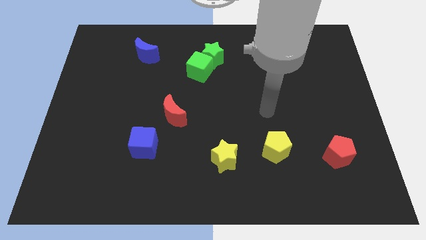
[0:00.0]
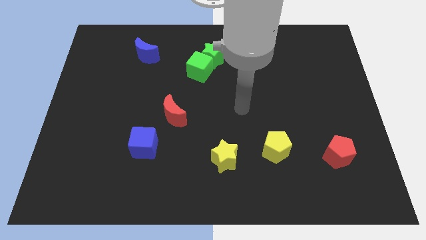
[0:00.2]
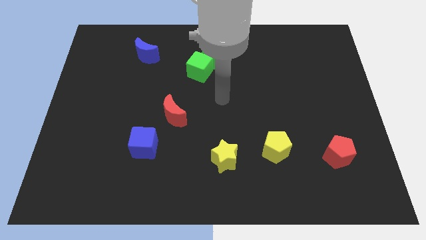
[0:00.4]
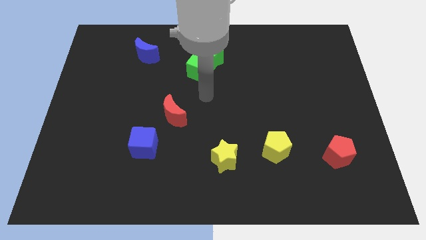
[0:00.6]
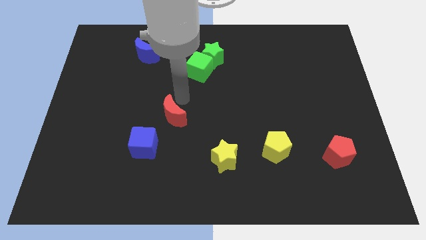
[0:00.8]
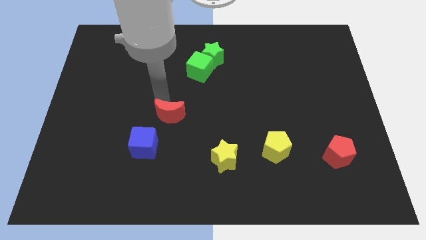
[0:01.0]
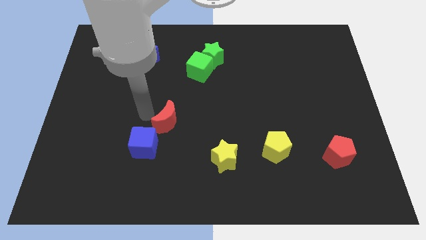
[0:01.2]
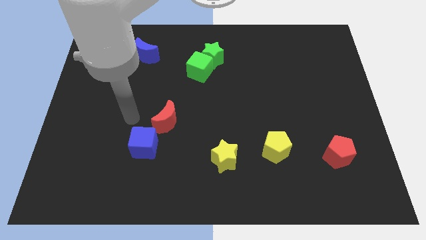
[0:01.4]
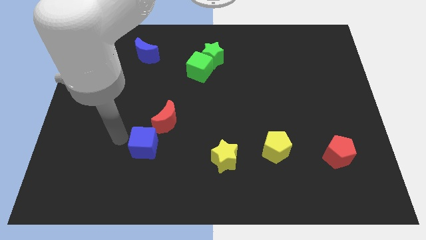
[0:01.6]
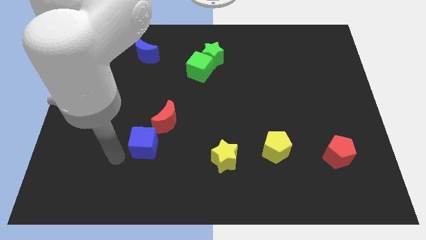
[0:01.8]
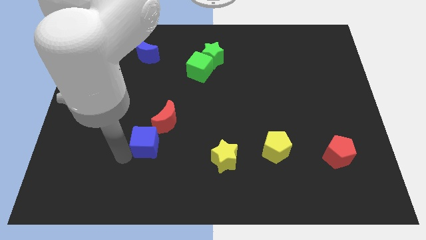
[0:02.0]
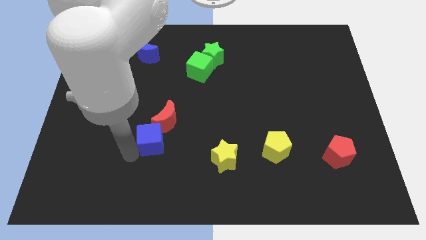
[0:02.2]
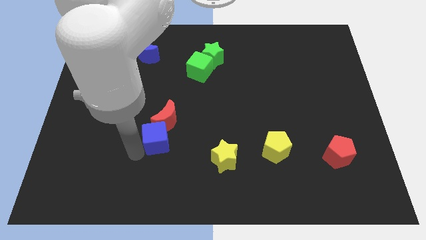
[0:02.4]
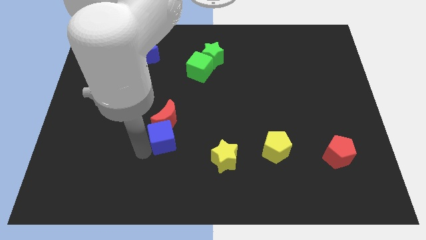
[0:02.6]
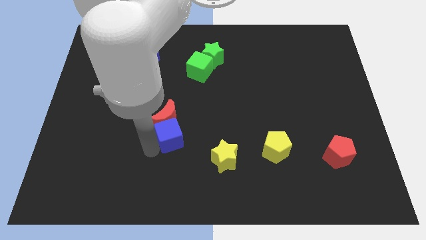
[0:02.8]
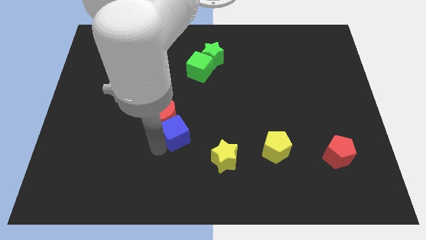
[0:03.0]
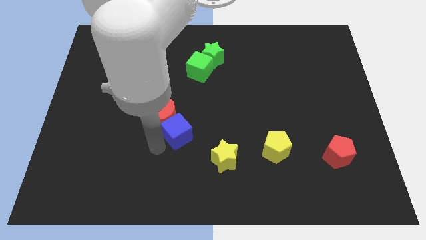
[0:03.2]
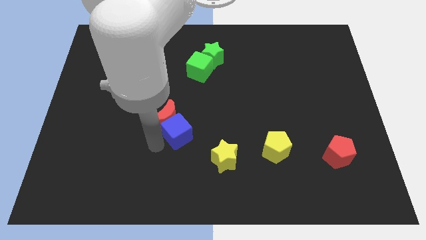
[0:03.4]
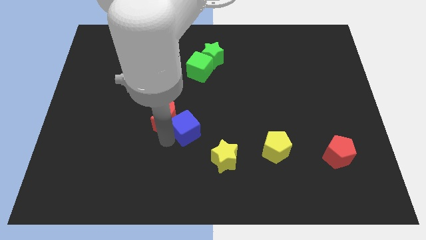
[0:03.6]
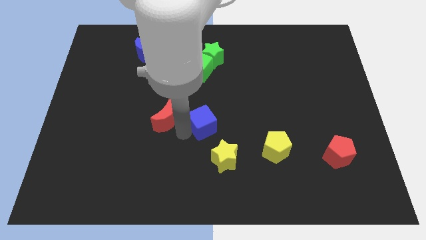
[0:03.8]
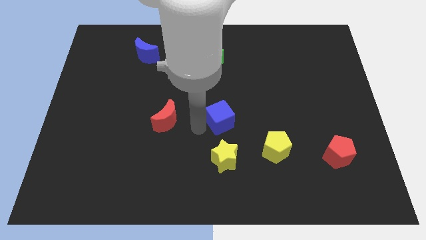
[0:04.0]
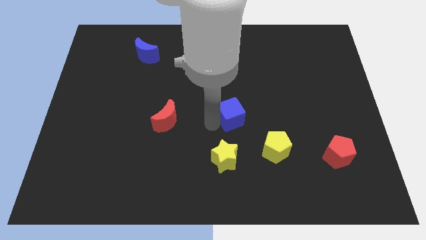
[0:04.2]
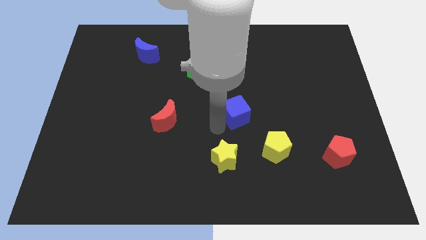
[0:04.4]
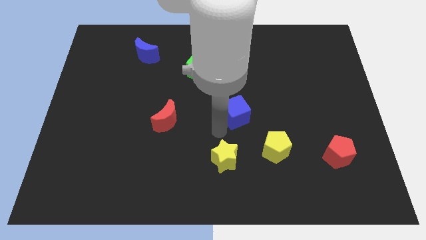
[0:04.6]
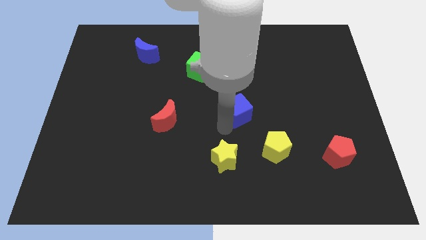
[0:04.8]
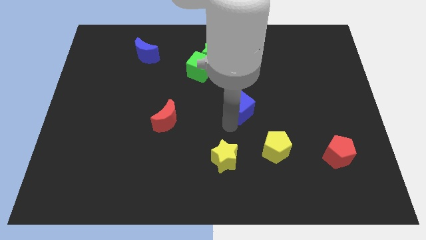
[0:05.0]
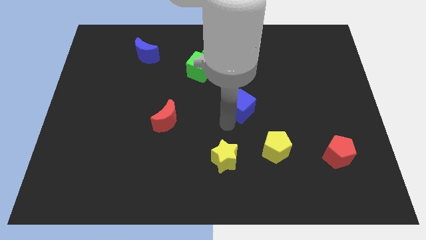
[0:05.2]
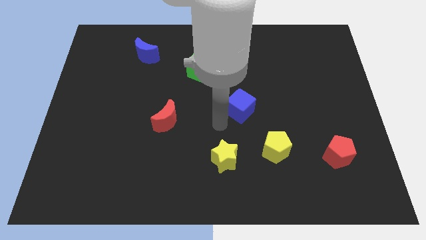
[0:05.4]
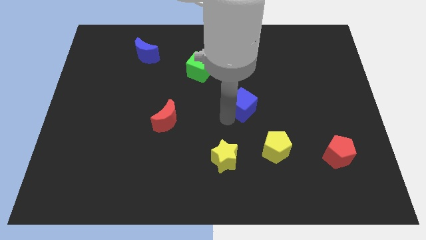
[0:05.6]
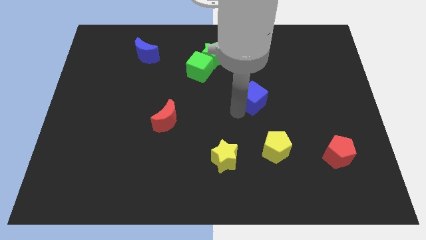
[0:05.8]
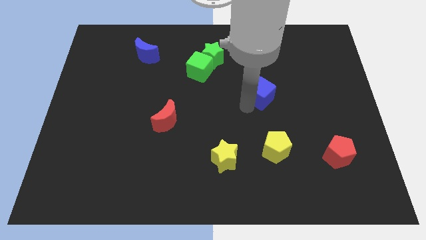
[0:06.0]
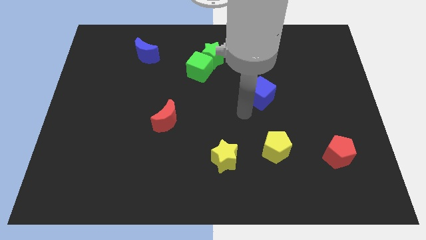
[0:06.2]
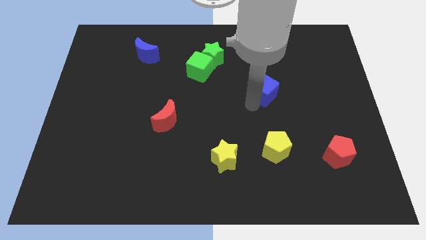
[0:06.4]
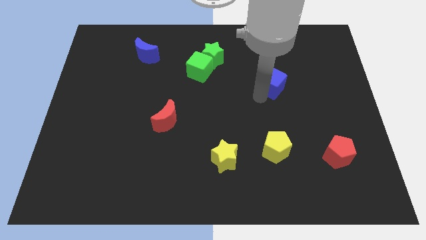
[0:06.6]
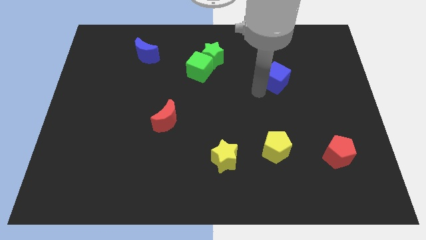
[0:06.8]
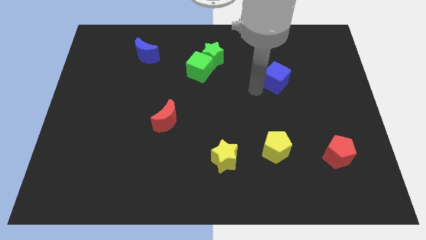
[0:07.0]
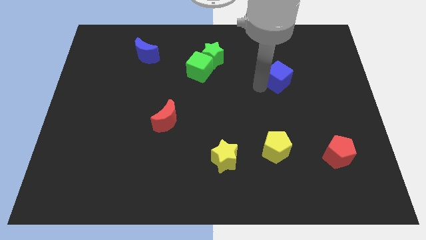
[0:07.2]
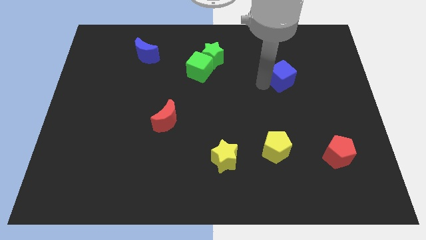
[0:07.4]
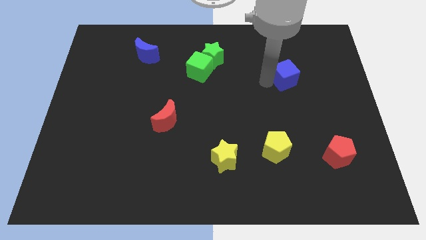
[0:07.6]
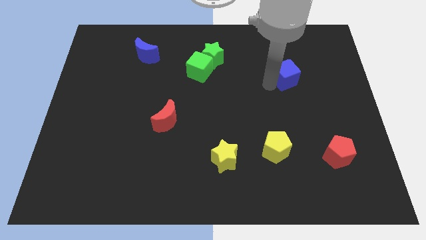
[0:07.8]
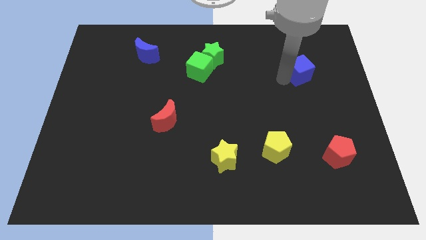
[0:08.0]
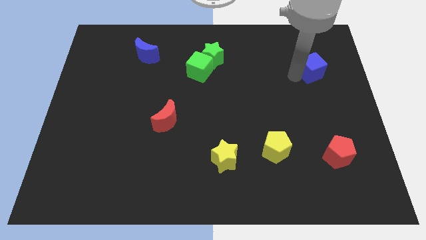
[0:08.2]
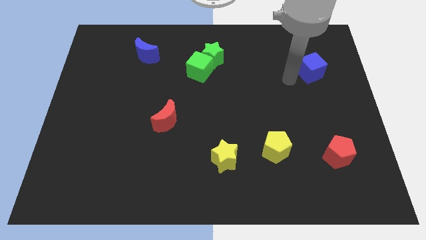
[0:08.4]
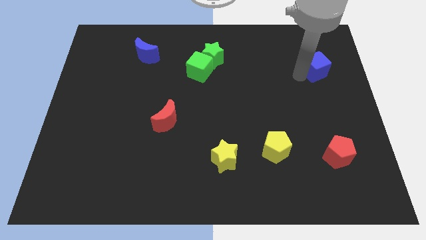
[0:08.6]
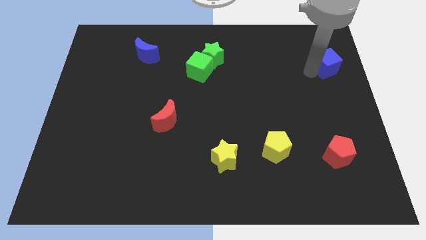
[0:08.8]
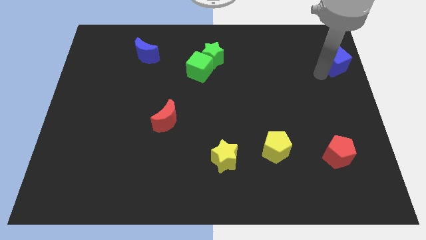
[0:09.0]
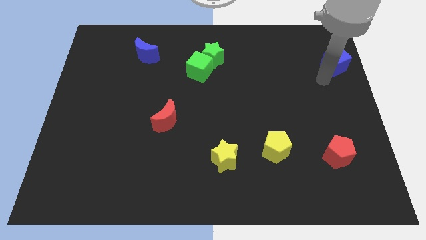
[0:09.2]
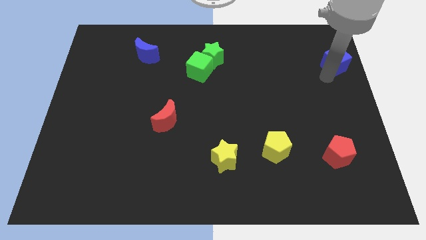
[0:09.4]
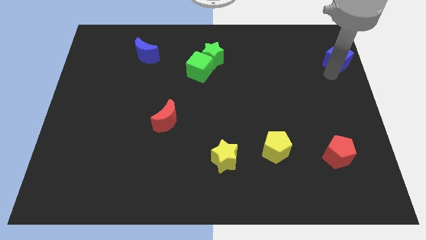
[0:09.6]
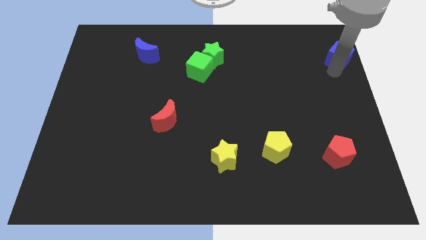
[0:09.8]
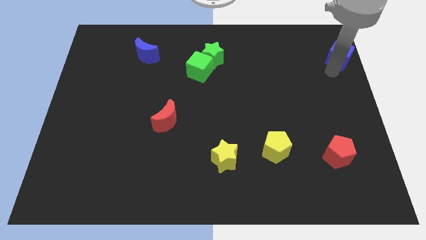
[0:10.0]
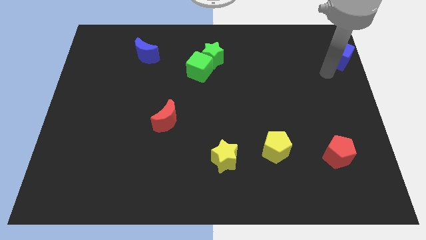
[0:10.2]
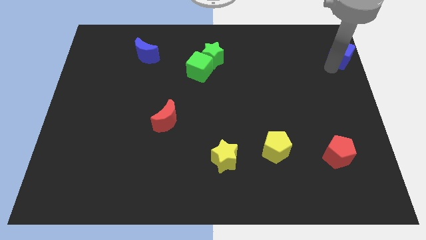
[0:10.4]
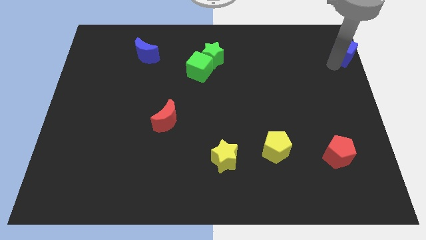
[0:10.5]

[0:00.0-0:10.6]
move the blue cube to the top right
